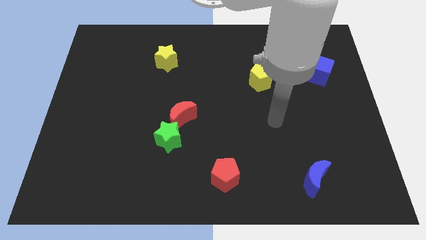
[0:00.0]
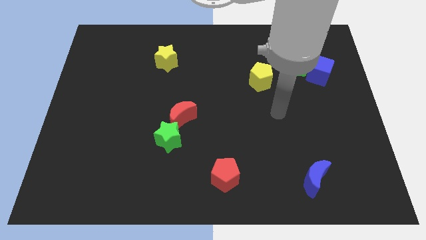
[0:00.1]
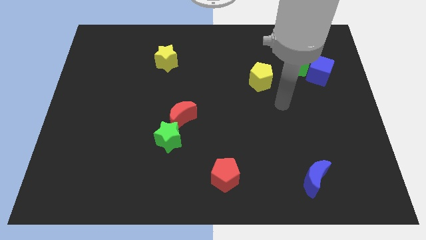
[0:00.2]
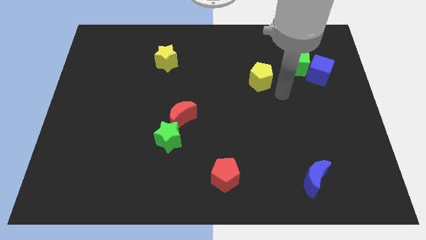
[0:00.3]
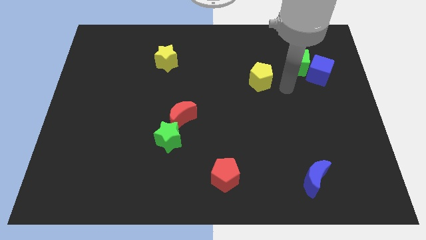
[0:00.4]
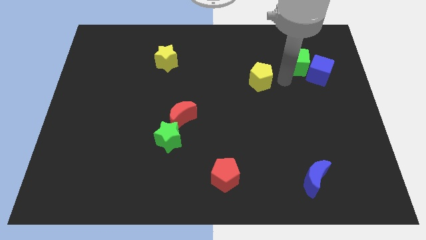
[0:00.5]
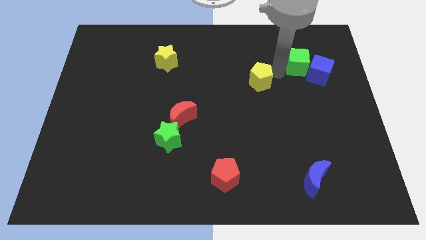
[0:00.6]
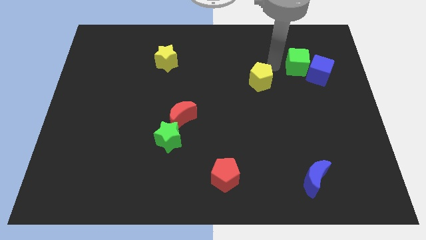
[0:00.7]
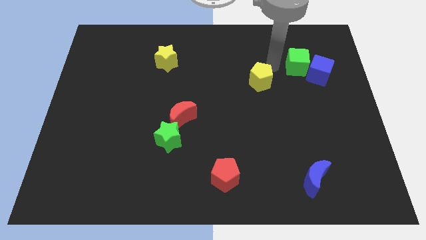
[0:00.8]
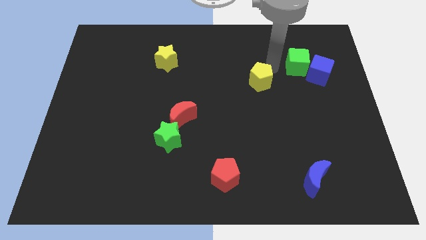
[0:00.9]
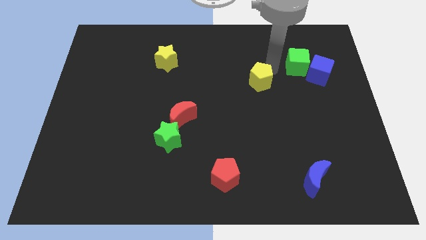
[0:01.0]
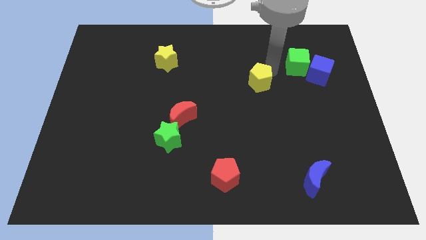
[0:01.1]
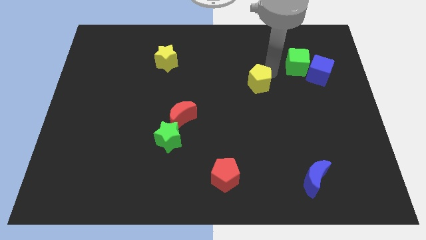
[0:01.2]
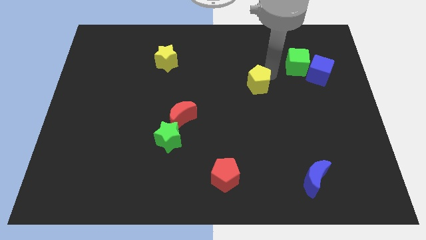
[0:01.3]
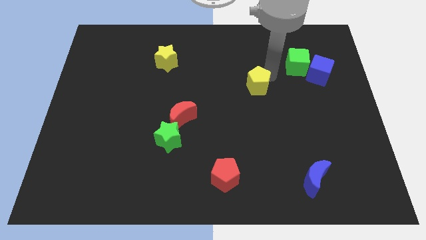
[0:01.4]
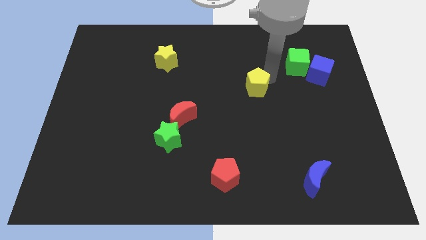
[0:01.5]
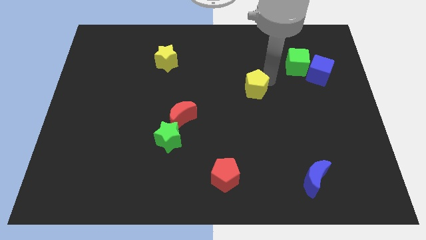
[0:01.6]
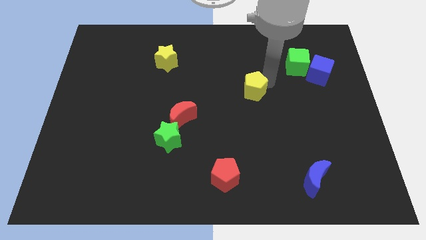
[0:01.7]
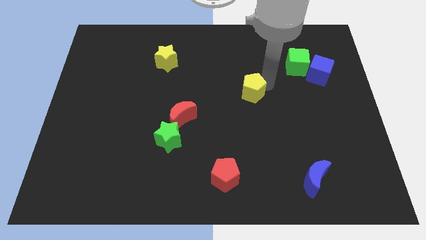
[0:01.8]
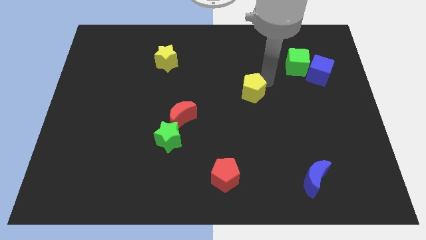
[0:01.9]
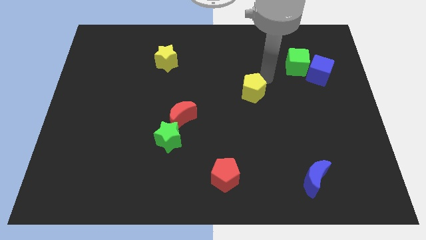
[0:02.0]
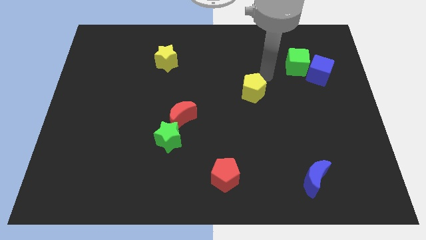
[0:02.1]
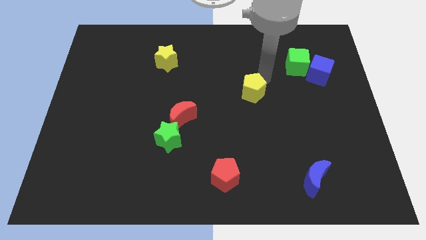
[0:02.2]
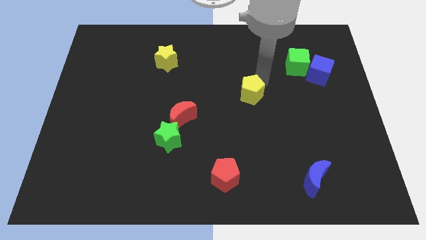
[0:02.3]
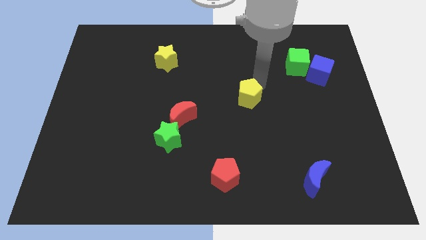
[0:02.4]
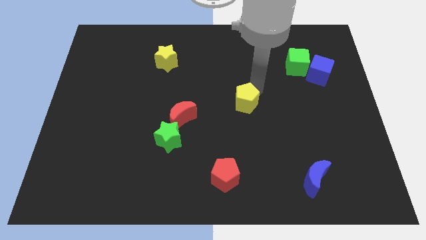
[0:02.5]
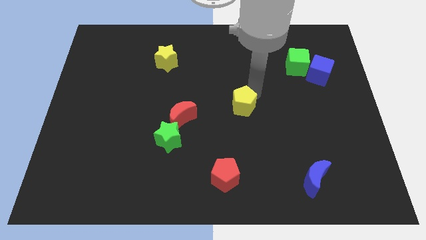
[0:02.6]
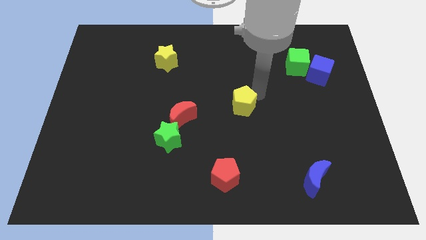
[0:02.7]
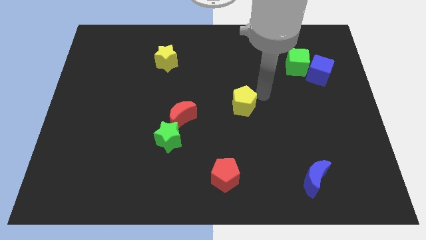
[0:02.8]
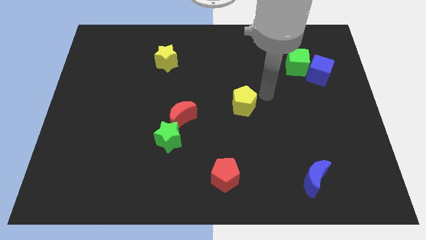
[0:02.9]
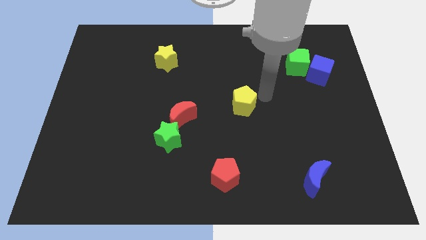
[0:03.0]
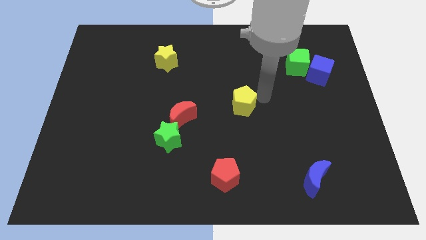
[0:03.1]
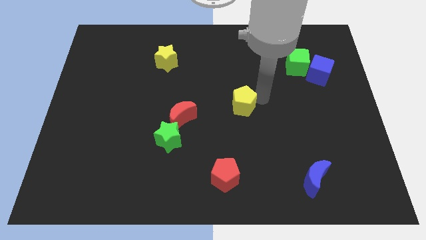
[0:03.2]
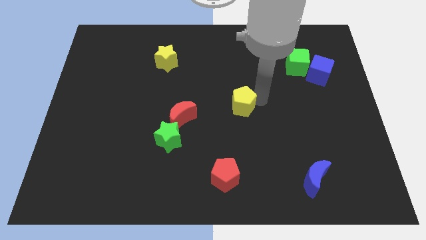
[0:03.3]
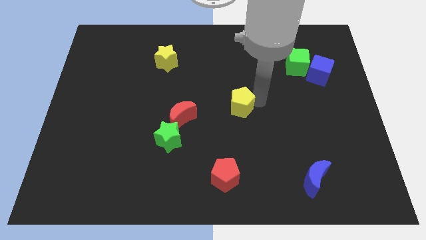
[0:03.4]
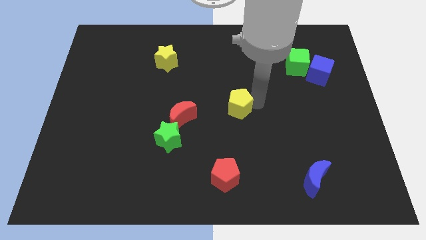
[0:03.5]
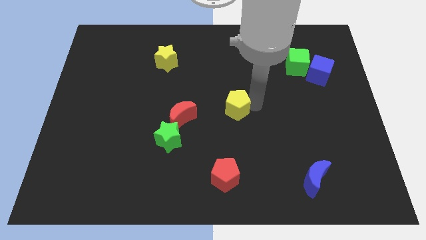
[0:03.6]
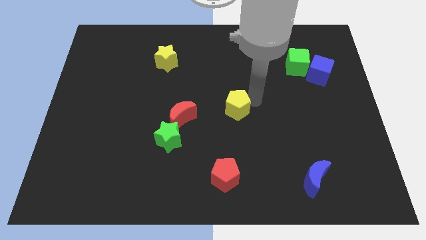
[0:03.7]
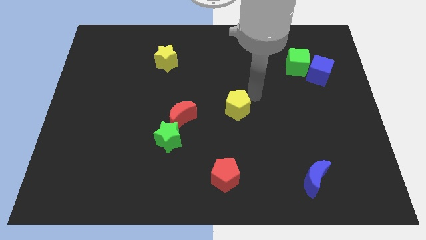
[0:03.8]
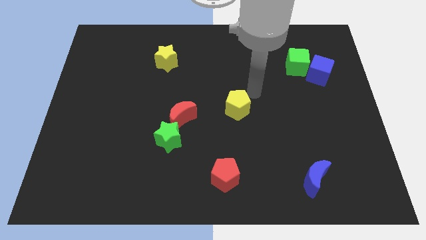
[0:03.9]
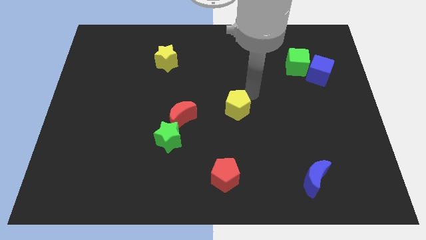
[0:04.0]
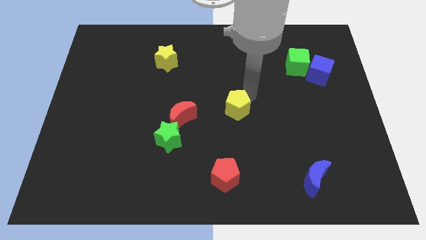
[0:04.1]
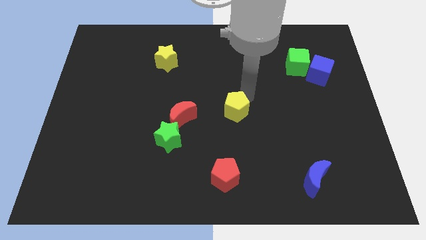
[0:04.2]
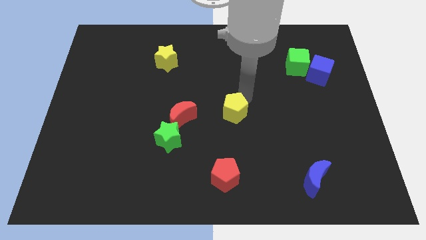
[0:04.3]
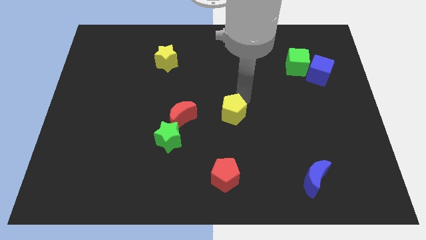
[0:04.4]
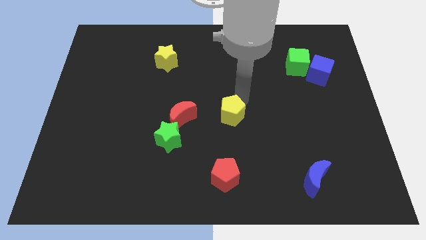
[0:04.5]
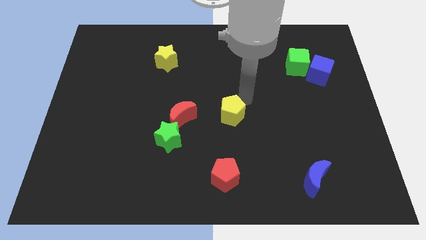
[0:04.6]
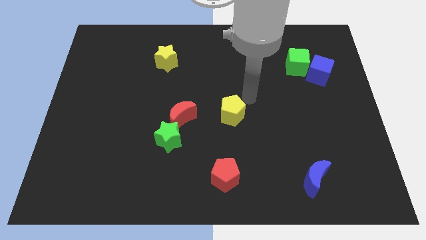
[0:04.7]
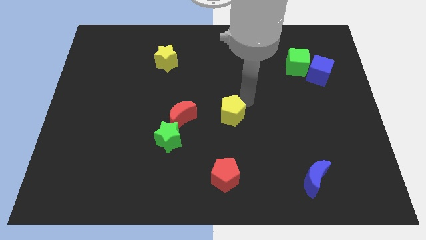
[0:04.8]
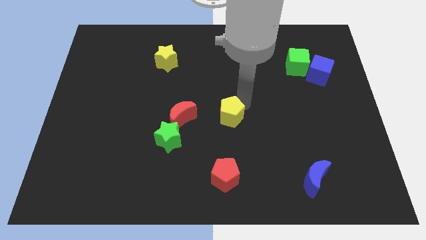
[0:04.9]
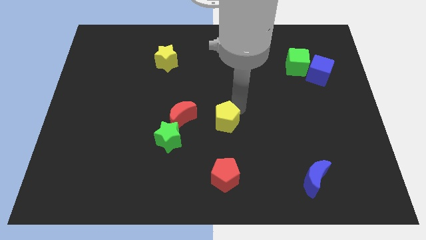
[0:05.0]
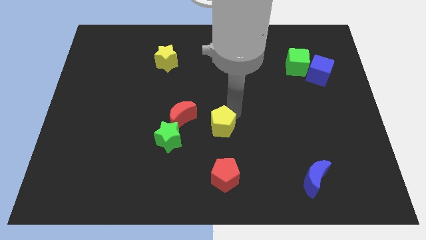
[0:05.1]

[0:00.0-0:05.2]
put the yellow pentagon just right of the green star

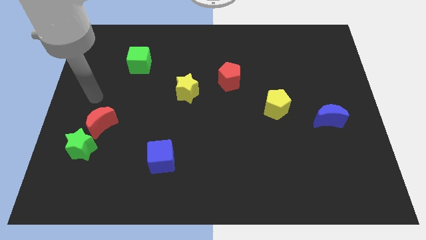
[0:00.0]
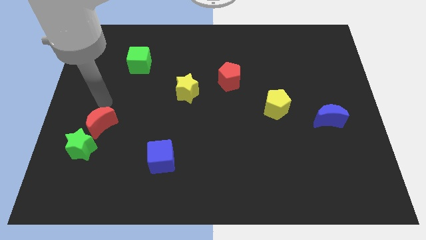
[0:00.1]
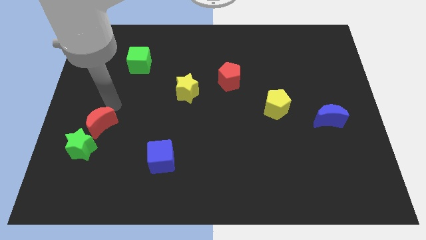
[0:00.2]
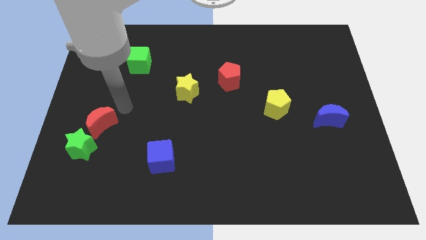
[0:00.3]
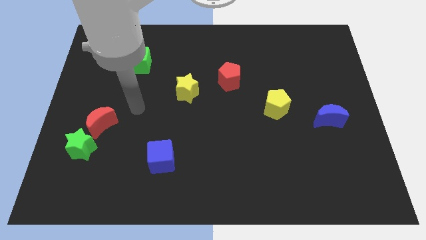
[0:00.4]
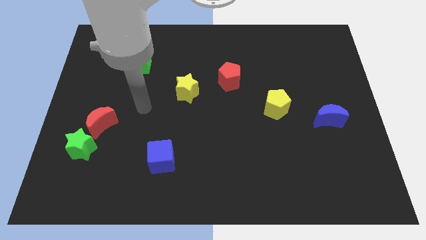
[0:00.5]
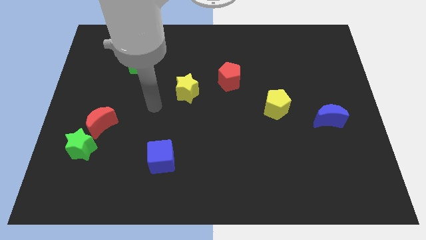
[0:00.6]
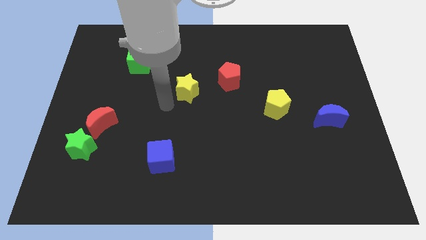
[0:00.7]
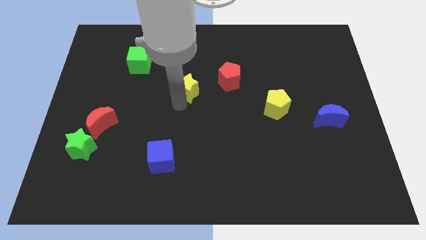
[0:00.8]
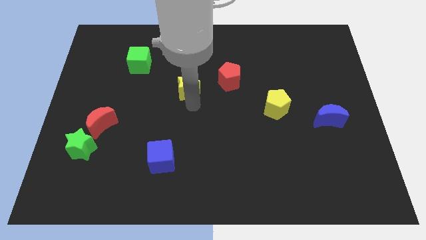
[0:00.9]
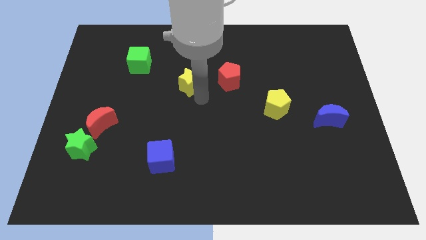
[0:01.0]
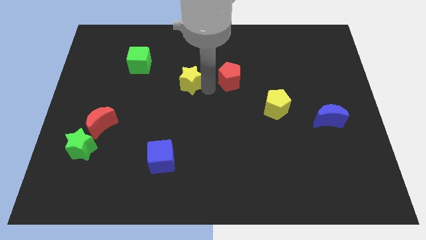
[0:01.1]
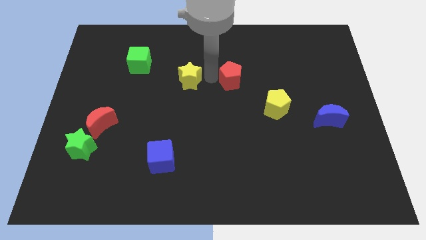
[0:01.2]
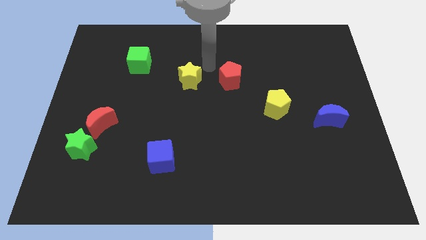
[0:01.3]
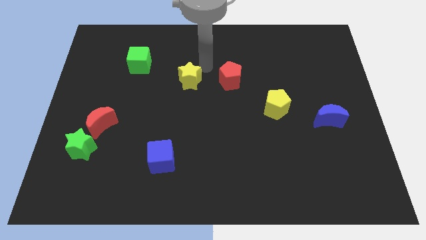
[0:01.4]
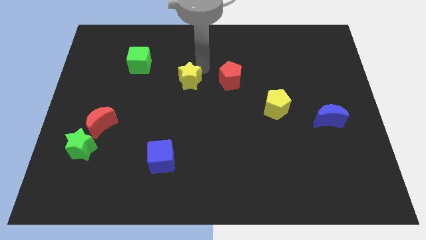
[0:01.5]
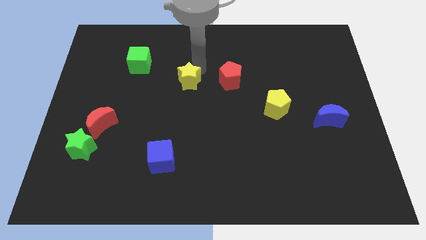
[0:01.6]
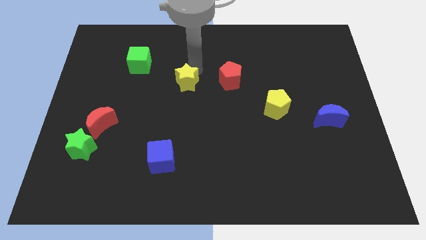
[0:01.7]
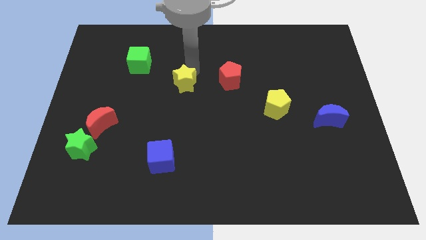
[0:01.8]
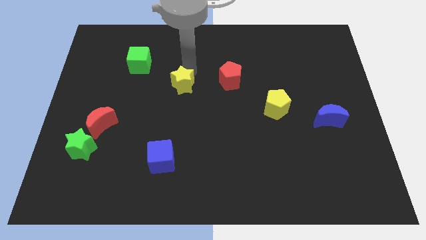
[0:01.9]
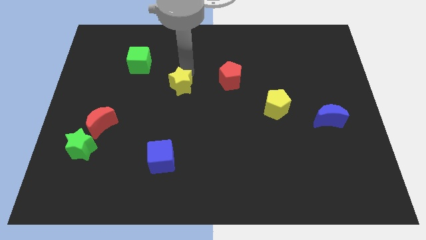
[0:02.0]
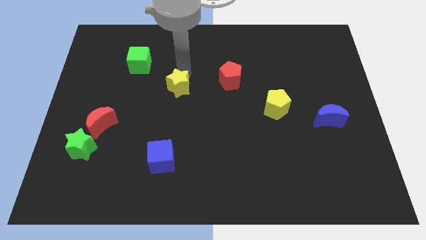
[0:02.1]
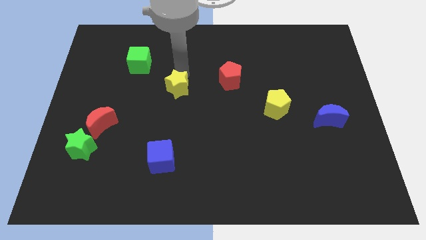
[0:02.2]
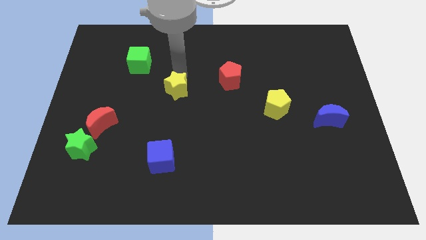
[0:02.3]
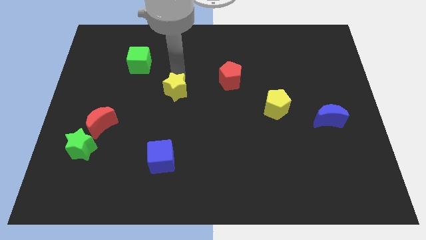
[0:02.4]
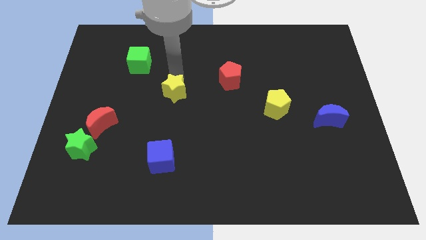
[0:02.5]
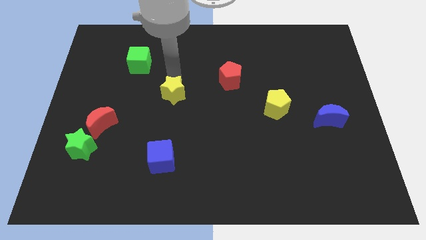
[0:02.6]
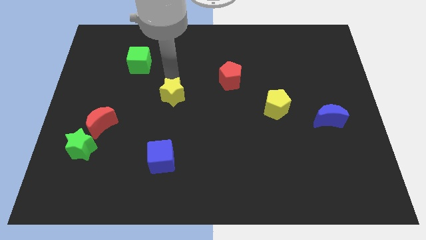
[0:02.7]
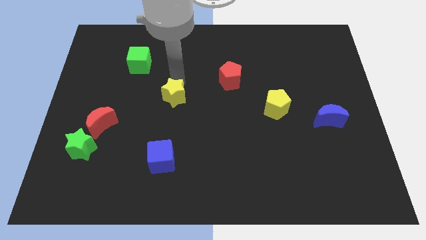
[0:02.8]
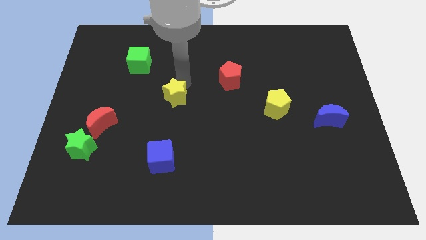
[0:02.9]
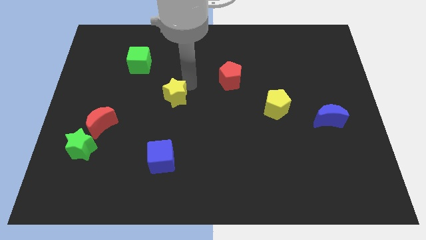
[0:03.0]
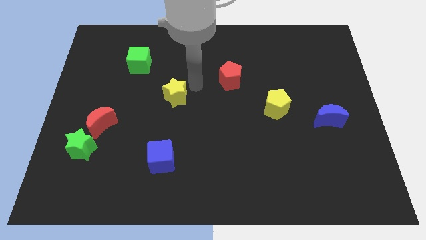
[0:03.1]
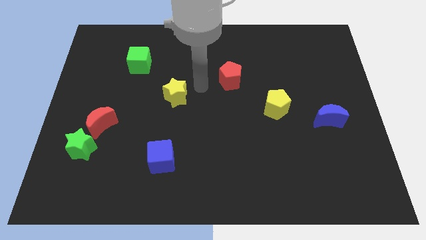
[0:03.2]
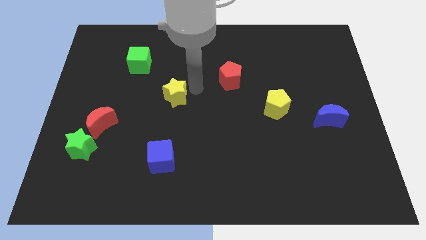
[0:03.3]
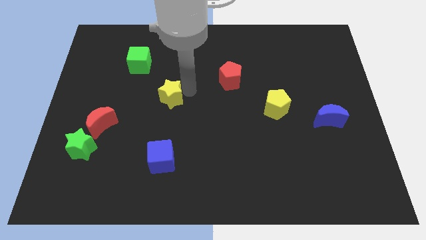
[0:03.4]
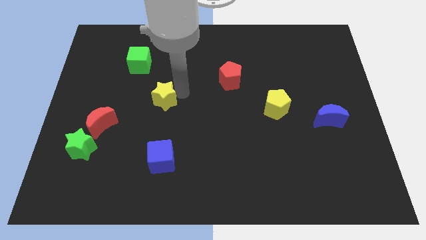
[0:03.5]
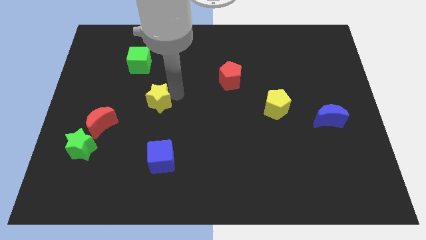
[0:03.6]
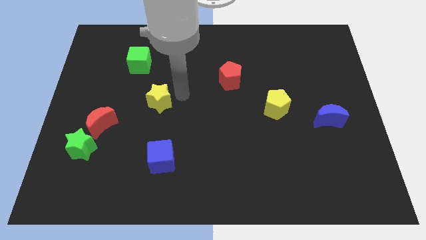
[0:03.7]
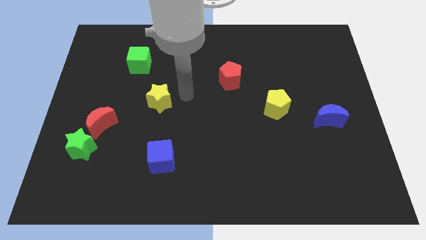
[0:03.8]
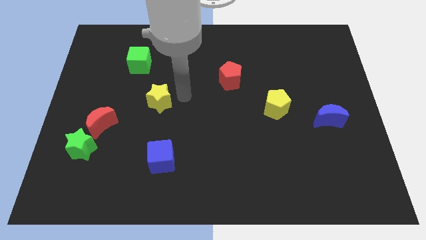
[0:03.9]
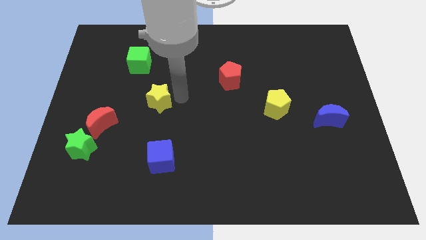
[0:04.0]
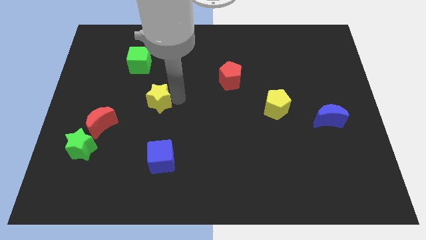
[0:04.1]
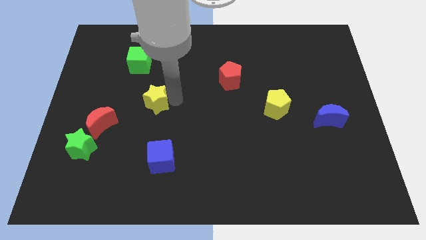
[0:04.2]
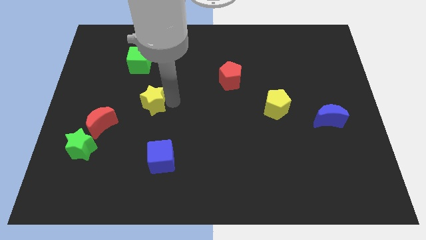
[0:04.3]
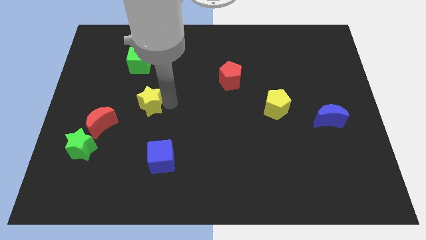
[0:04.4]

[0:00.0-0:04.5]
put the yellow star to the top right of the red moon
